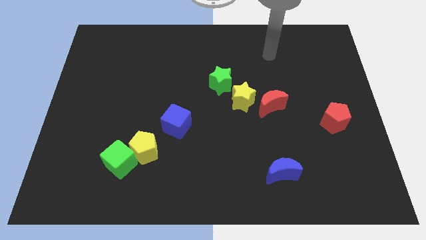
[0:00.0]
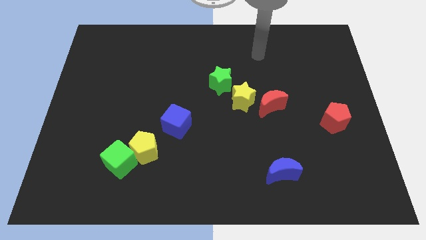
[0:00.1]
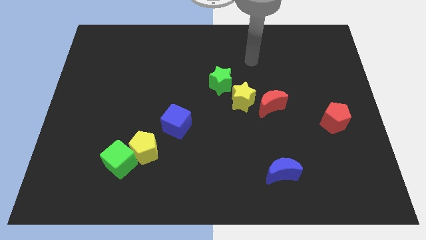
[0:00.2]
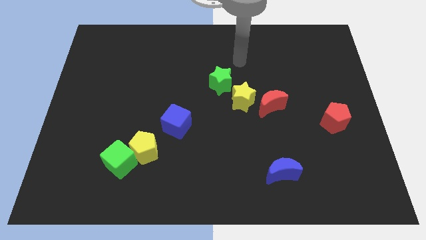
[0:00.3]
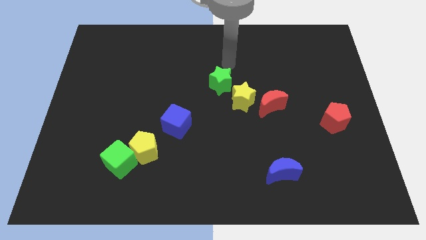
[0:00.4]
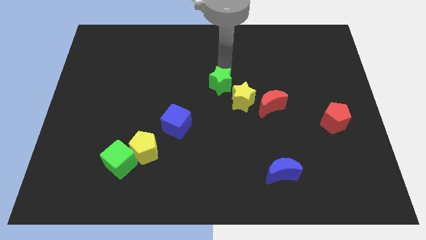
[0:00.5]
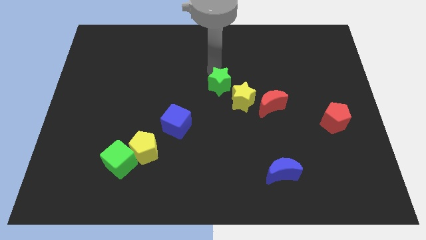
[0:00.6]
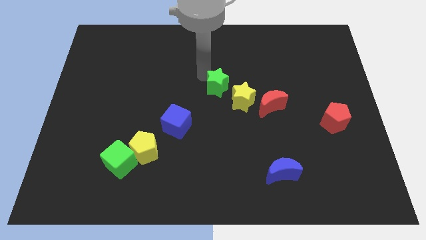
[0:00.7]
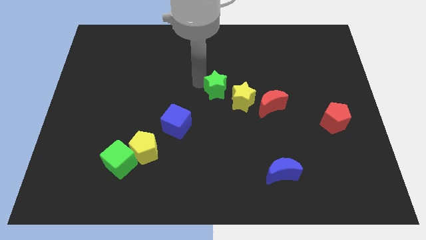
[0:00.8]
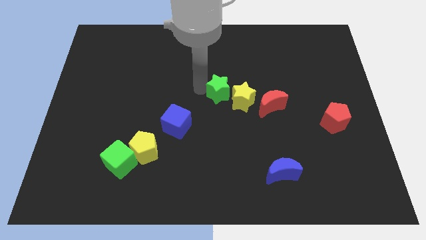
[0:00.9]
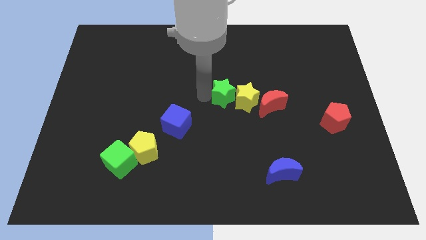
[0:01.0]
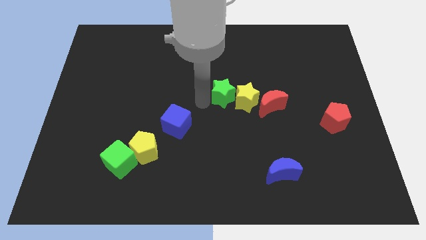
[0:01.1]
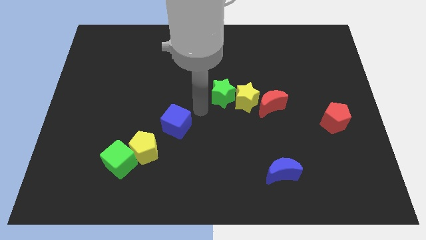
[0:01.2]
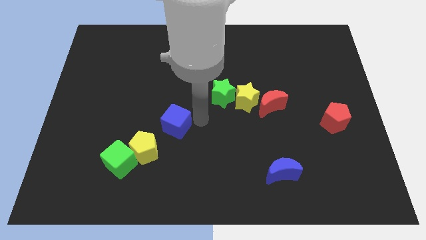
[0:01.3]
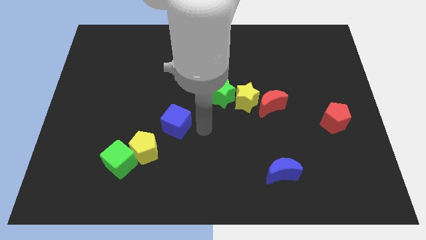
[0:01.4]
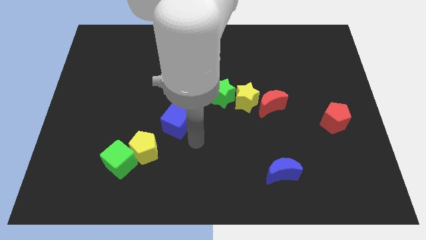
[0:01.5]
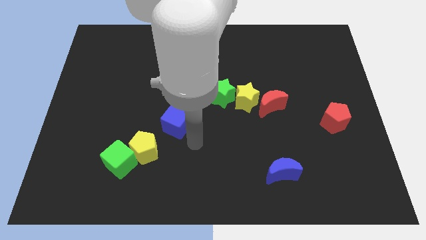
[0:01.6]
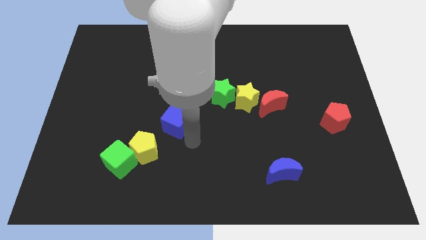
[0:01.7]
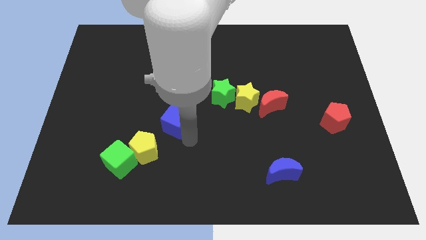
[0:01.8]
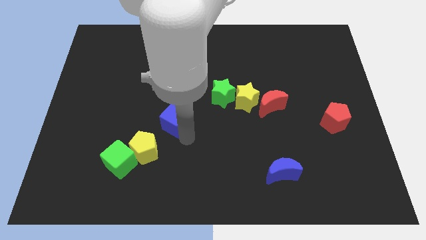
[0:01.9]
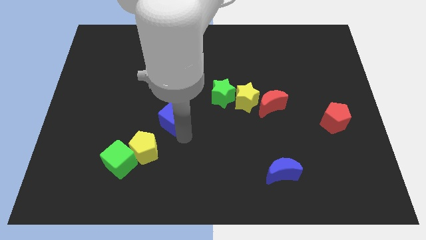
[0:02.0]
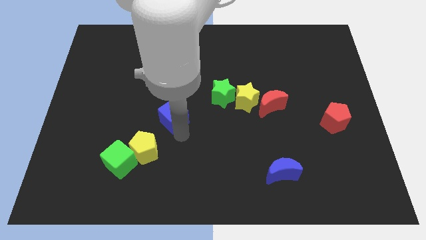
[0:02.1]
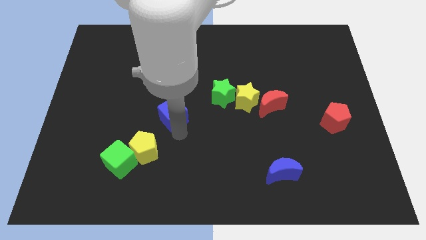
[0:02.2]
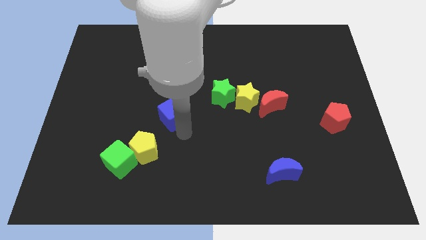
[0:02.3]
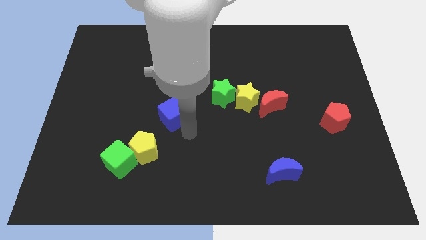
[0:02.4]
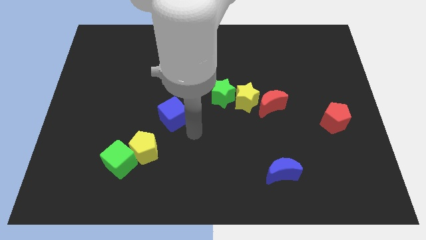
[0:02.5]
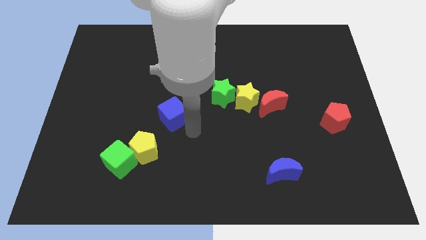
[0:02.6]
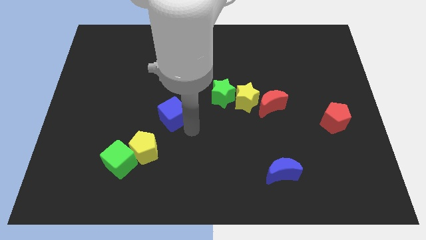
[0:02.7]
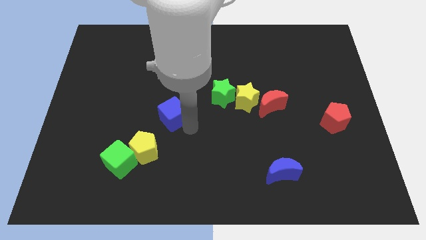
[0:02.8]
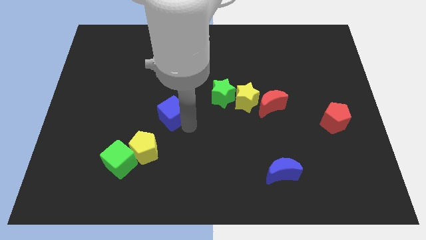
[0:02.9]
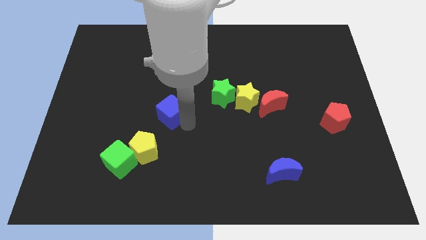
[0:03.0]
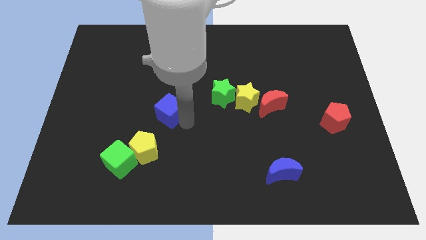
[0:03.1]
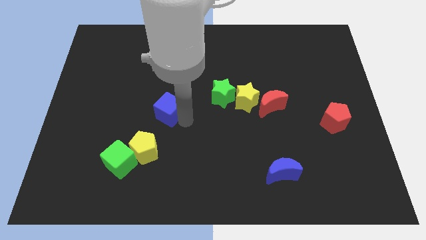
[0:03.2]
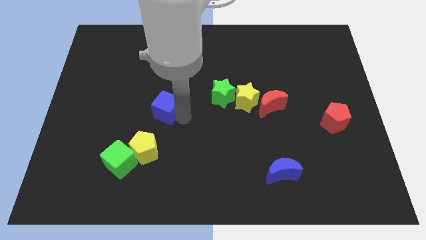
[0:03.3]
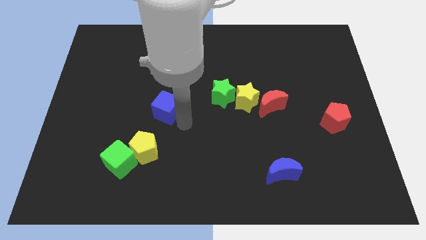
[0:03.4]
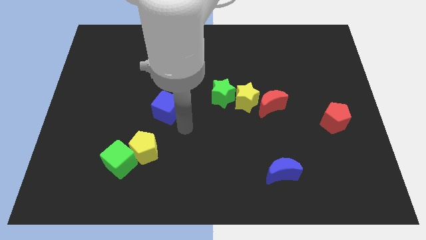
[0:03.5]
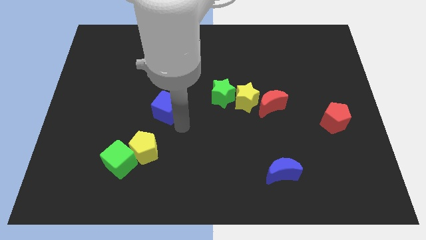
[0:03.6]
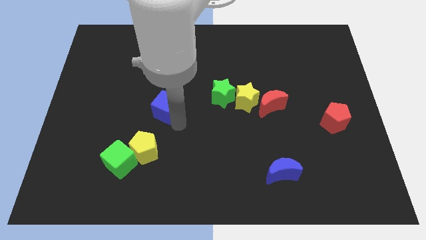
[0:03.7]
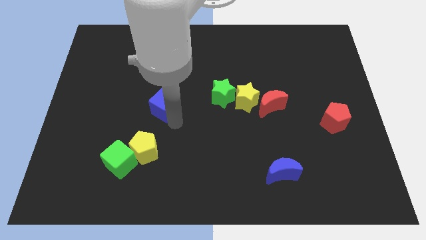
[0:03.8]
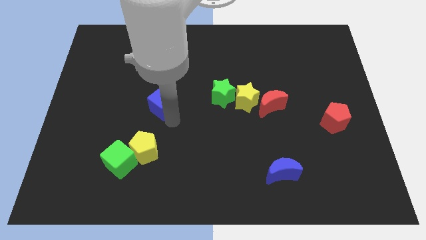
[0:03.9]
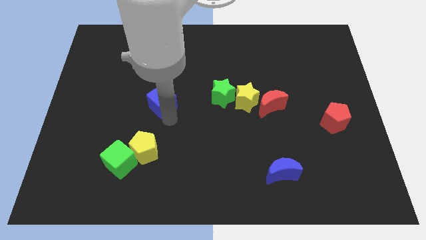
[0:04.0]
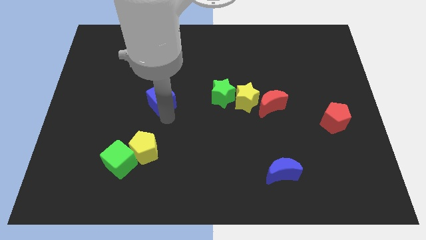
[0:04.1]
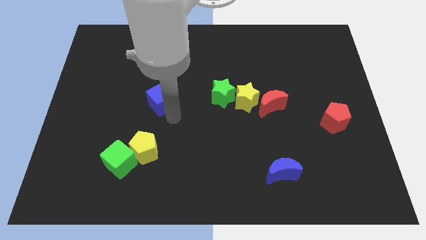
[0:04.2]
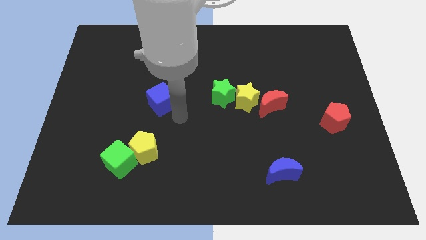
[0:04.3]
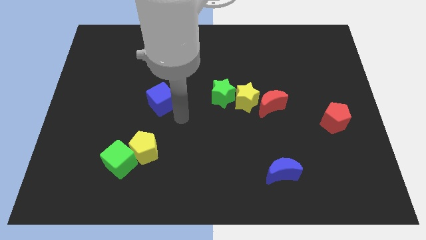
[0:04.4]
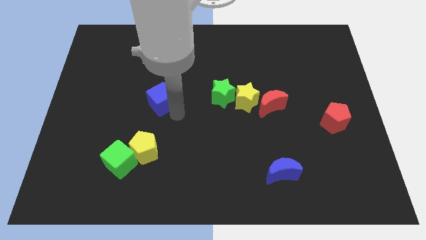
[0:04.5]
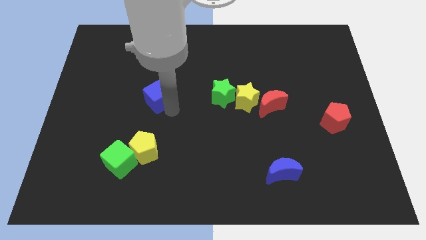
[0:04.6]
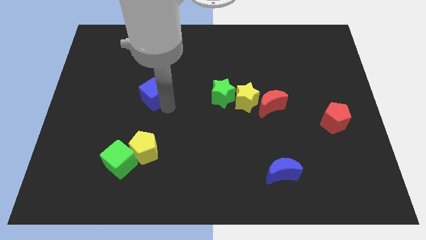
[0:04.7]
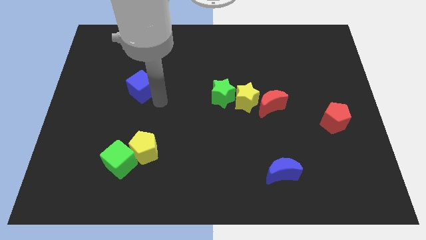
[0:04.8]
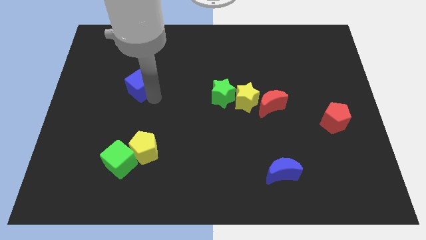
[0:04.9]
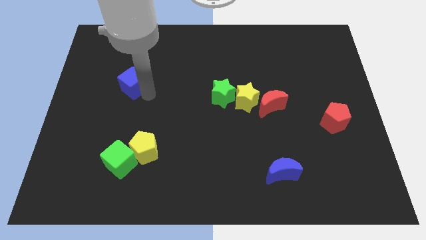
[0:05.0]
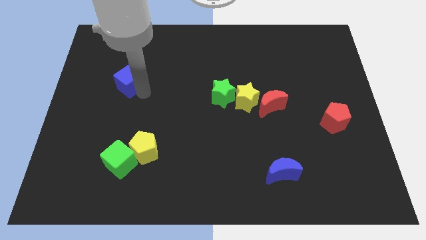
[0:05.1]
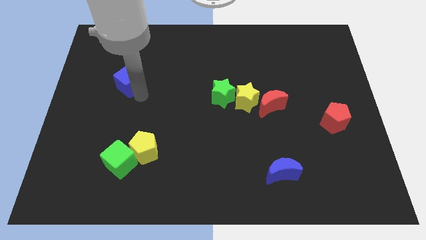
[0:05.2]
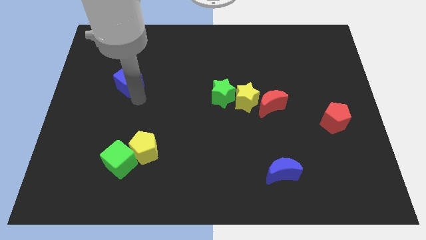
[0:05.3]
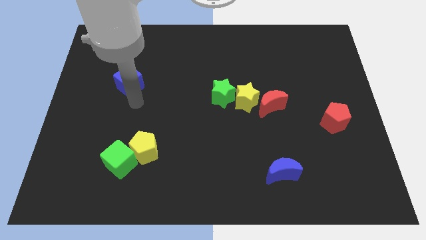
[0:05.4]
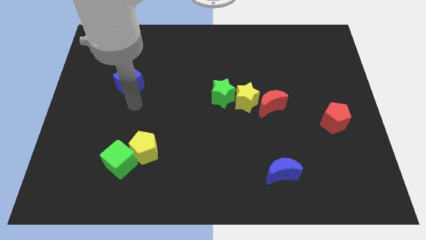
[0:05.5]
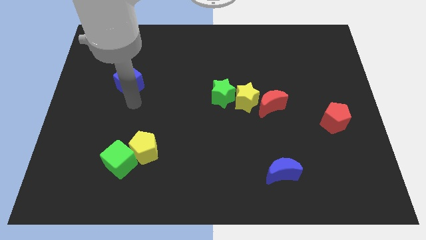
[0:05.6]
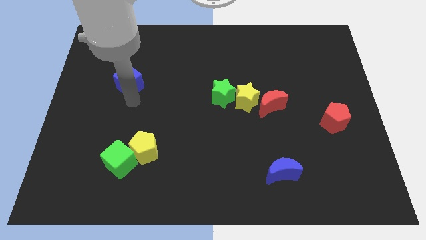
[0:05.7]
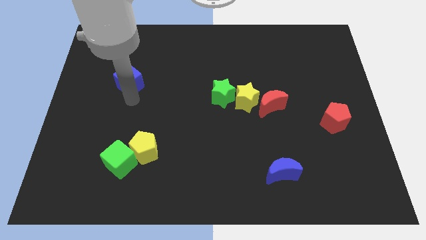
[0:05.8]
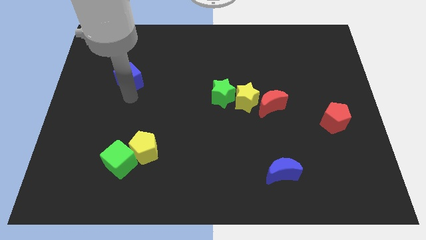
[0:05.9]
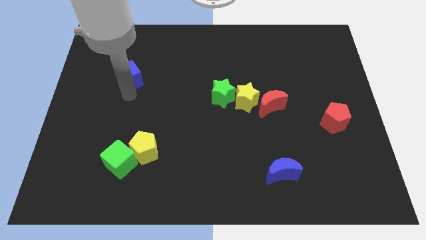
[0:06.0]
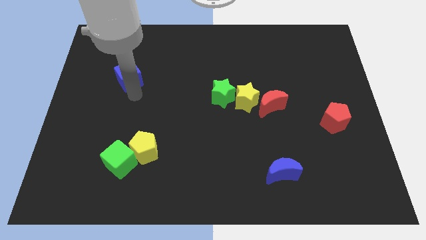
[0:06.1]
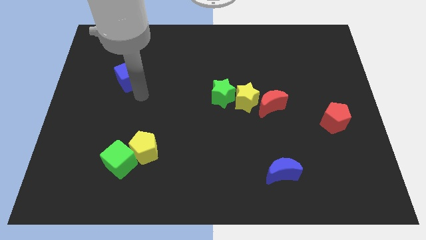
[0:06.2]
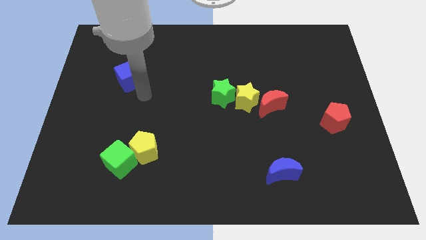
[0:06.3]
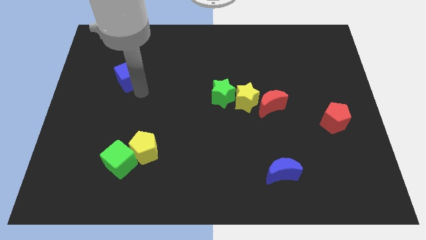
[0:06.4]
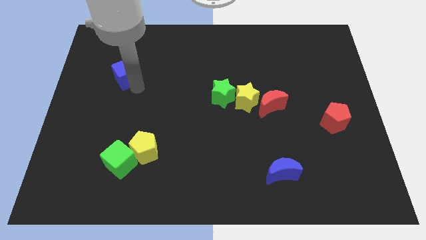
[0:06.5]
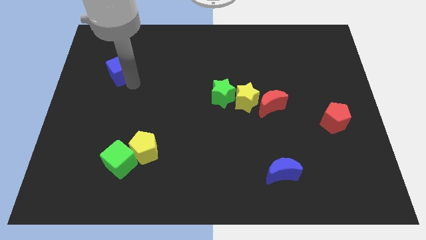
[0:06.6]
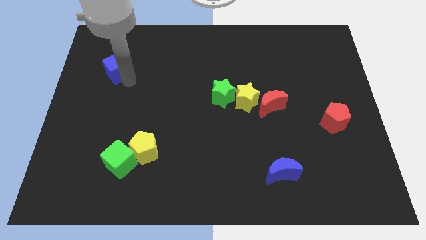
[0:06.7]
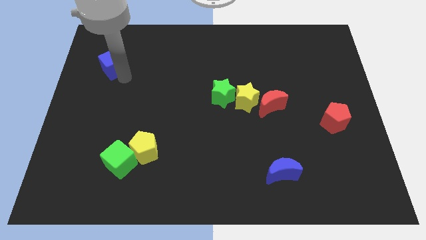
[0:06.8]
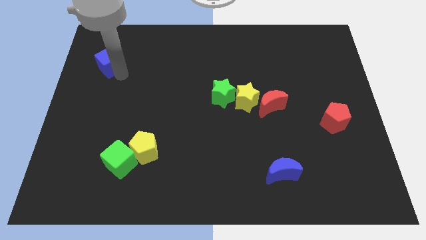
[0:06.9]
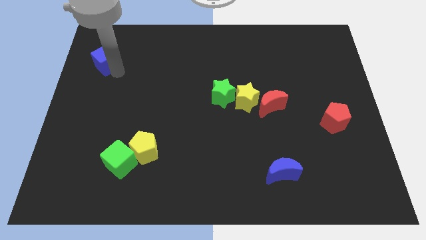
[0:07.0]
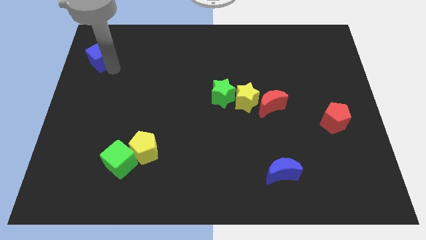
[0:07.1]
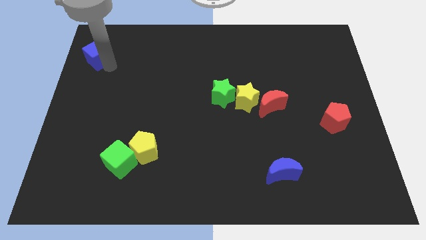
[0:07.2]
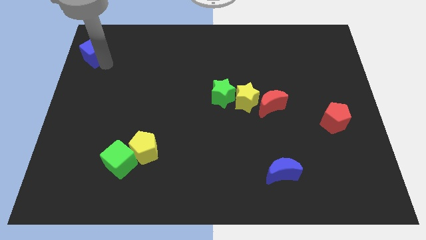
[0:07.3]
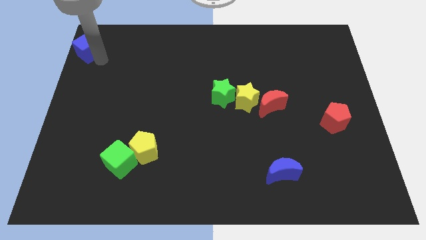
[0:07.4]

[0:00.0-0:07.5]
push the blue cube to the upper left corner
